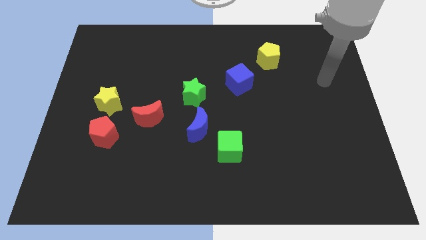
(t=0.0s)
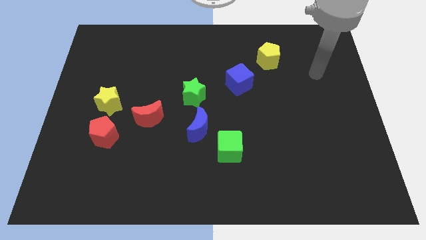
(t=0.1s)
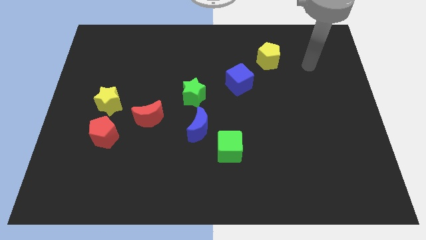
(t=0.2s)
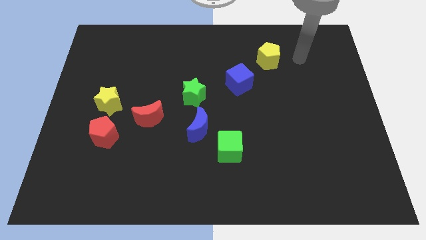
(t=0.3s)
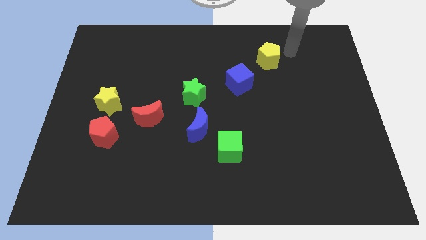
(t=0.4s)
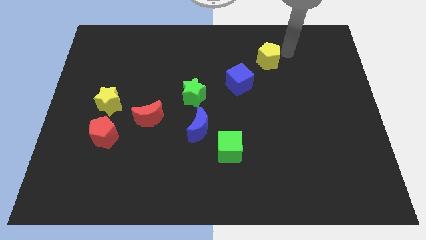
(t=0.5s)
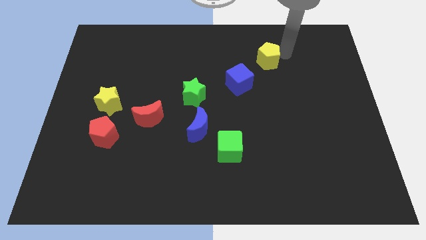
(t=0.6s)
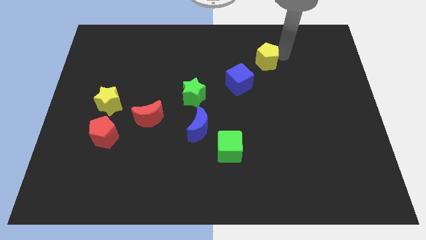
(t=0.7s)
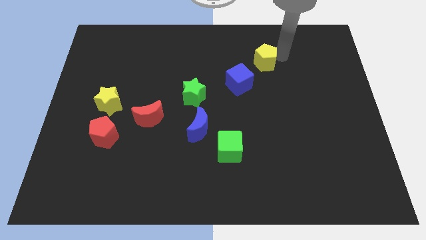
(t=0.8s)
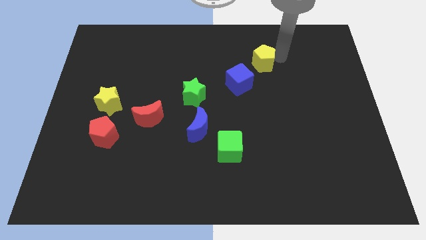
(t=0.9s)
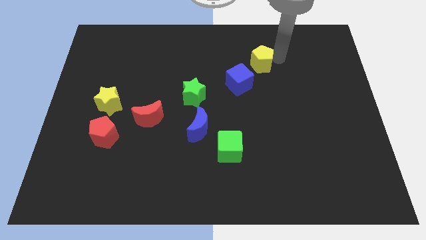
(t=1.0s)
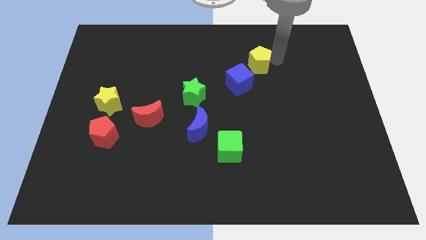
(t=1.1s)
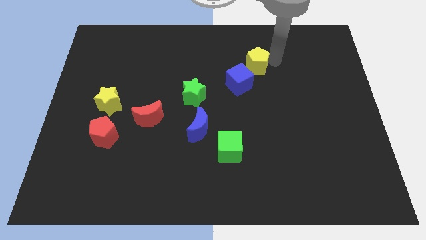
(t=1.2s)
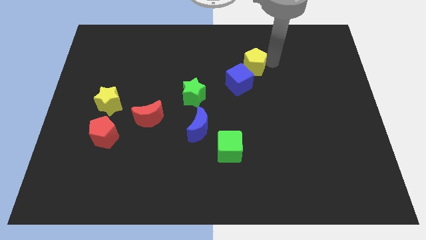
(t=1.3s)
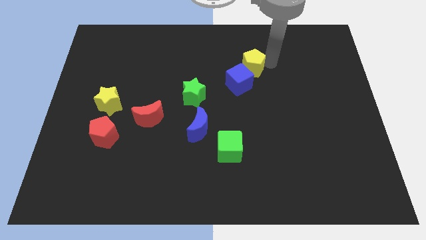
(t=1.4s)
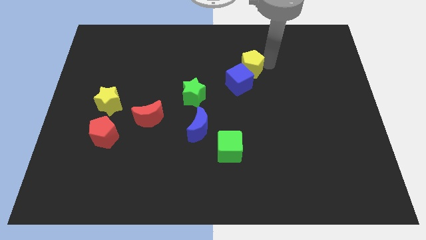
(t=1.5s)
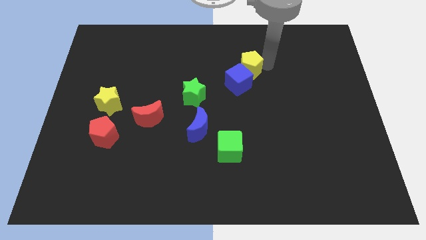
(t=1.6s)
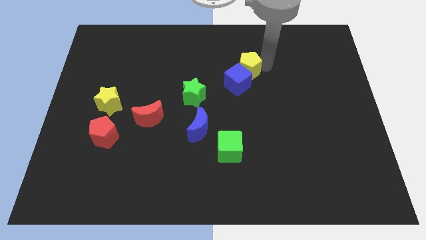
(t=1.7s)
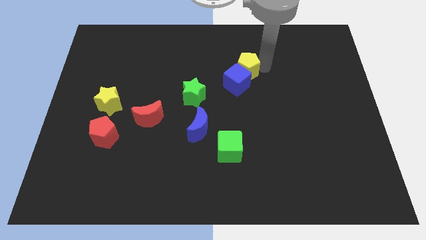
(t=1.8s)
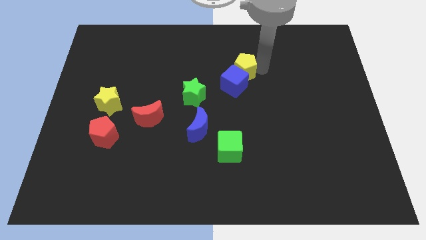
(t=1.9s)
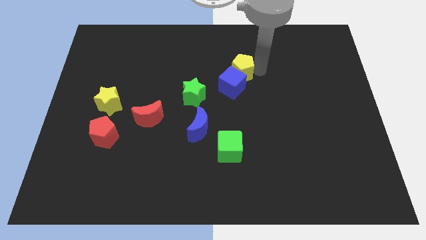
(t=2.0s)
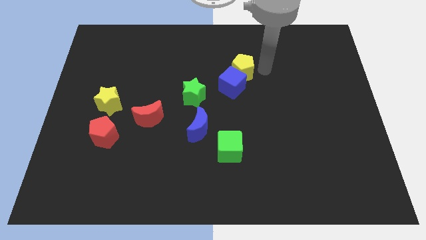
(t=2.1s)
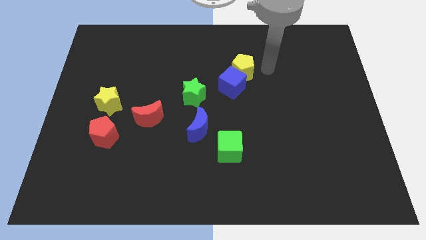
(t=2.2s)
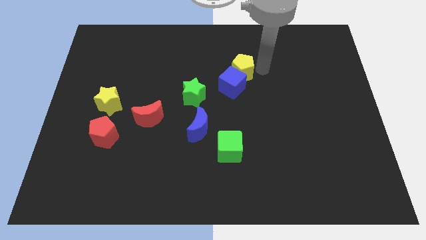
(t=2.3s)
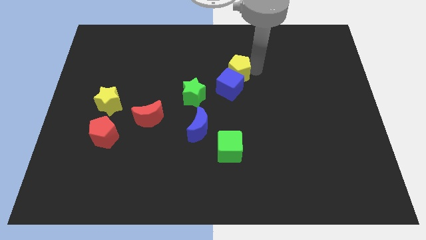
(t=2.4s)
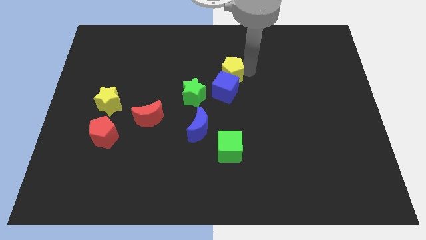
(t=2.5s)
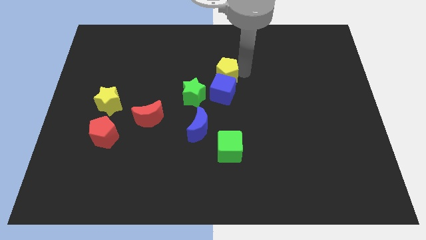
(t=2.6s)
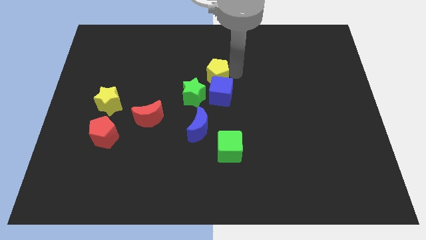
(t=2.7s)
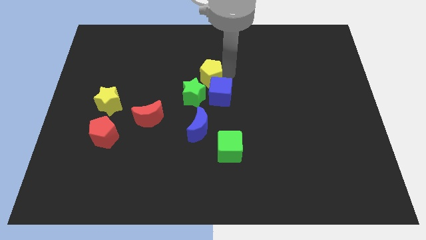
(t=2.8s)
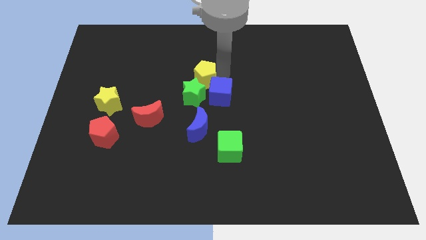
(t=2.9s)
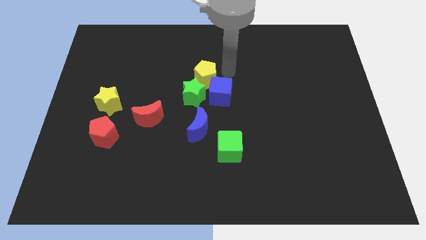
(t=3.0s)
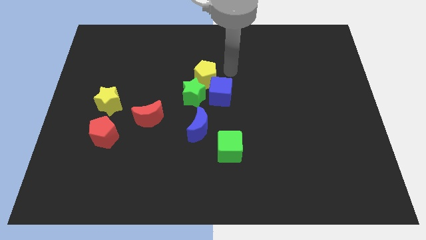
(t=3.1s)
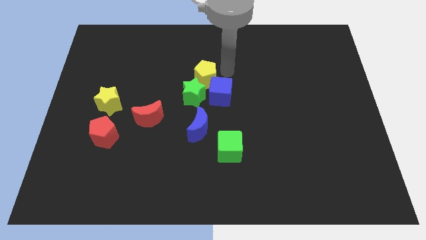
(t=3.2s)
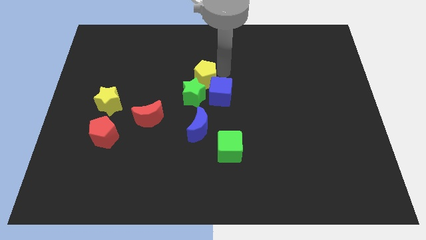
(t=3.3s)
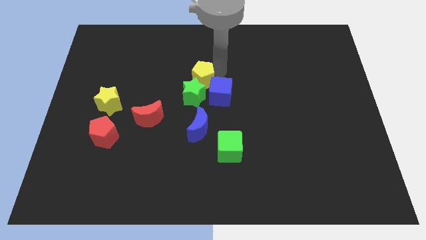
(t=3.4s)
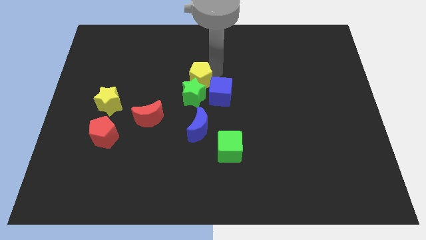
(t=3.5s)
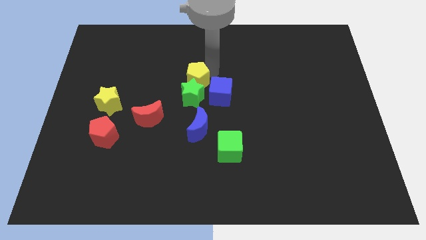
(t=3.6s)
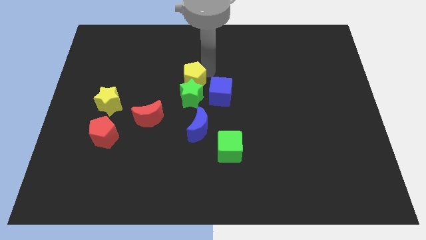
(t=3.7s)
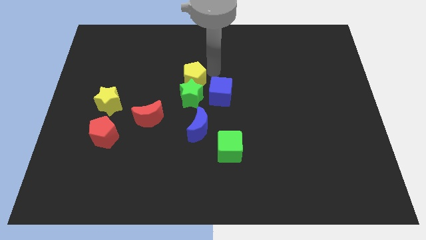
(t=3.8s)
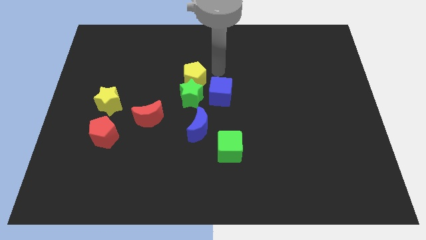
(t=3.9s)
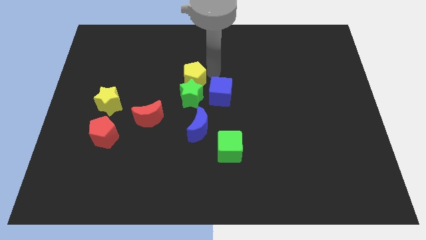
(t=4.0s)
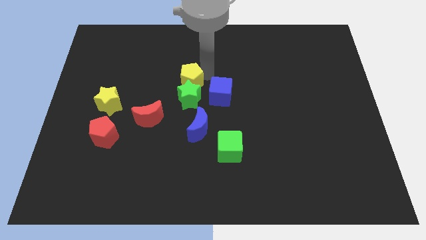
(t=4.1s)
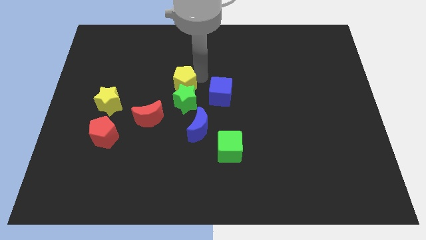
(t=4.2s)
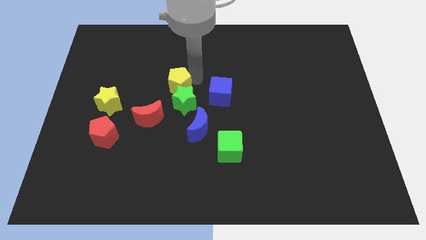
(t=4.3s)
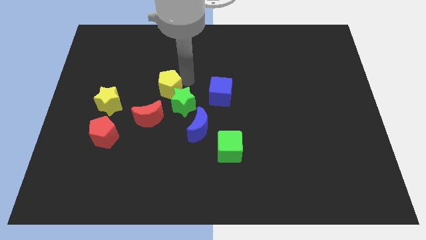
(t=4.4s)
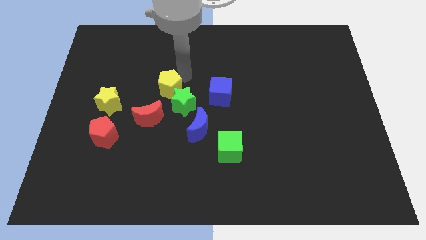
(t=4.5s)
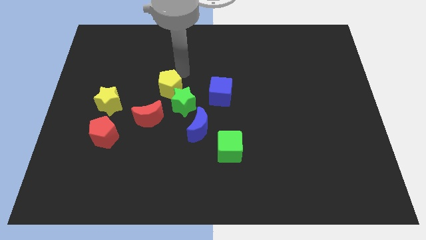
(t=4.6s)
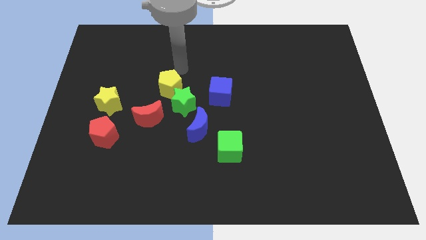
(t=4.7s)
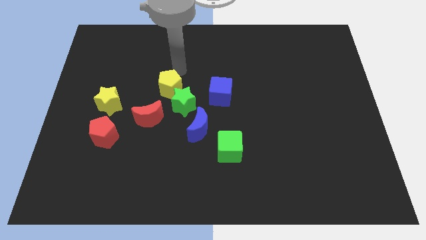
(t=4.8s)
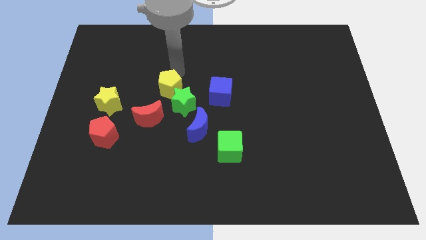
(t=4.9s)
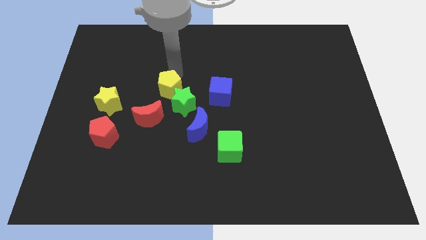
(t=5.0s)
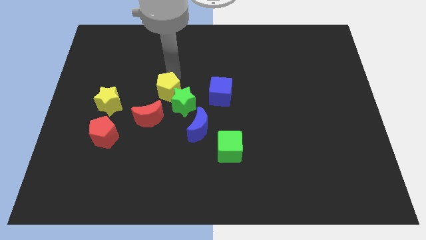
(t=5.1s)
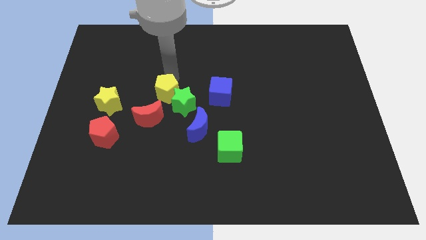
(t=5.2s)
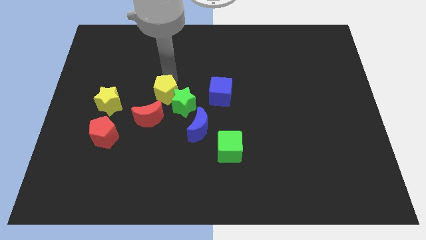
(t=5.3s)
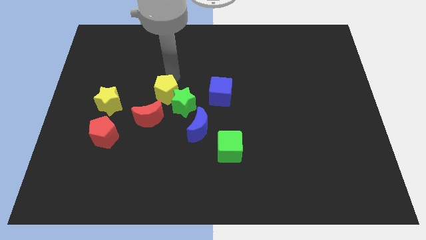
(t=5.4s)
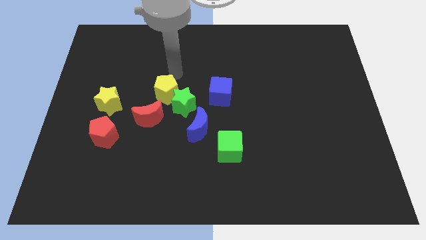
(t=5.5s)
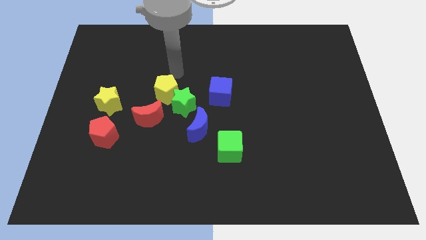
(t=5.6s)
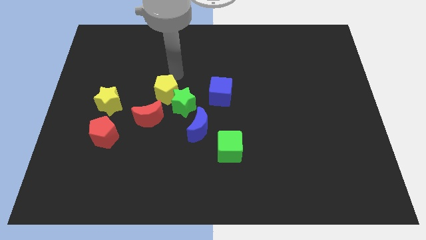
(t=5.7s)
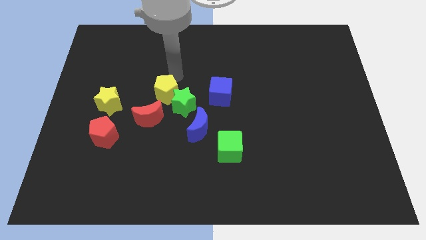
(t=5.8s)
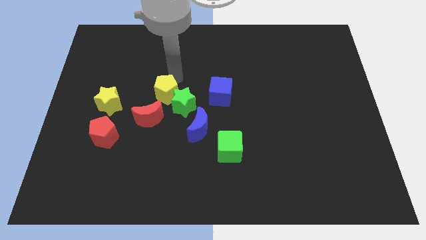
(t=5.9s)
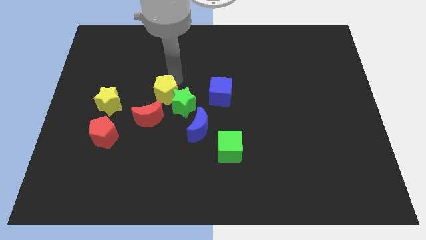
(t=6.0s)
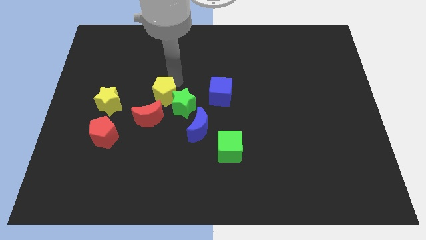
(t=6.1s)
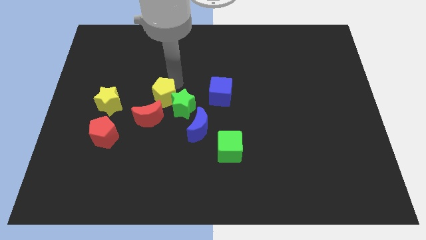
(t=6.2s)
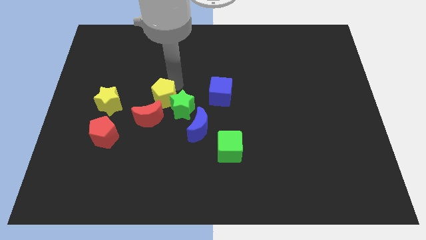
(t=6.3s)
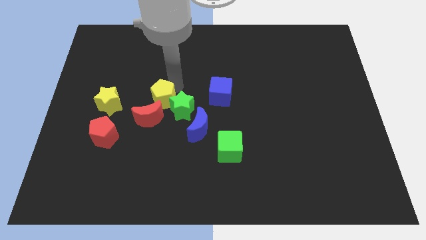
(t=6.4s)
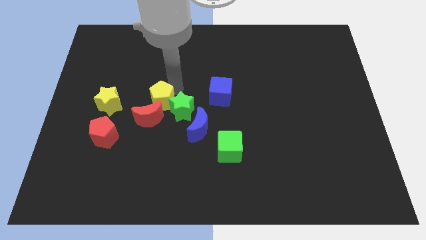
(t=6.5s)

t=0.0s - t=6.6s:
push the yellow pentagon close to the red moon

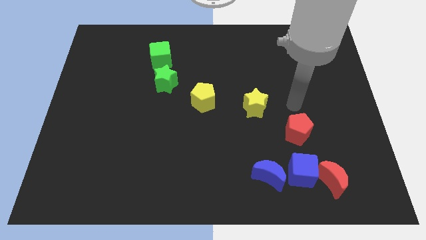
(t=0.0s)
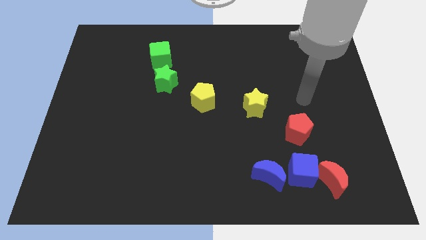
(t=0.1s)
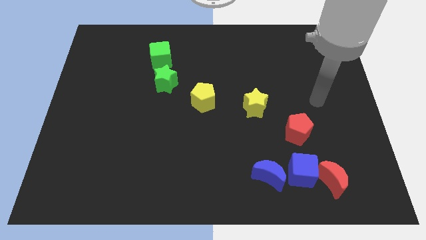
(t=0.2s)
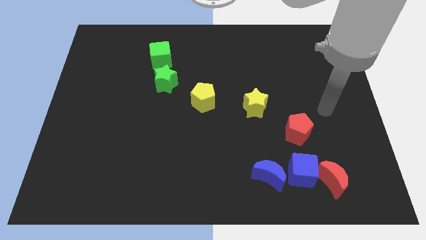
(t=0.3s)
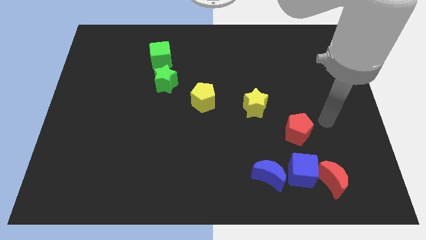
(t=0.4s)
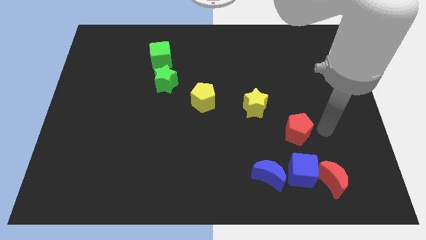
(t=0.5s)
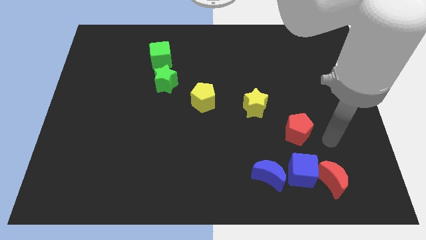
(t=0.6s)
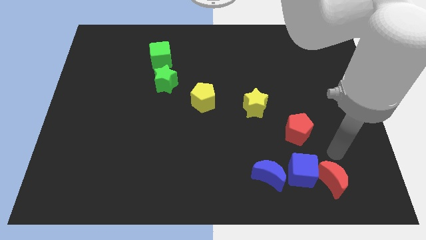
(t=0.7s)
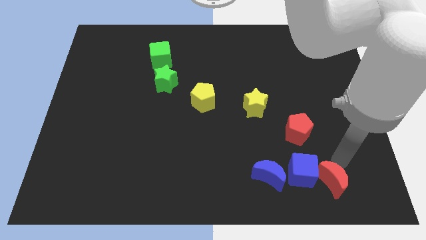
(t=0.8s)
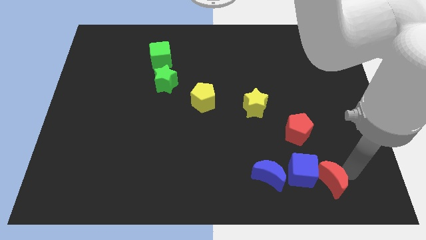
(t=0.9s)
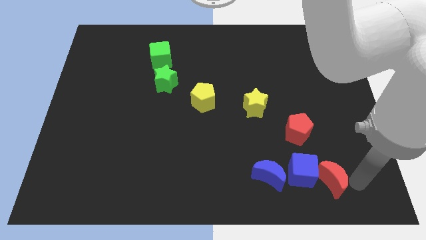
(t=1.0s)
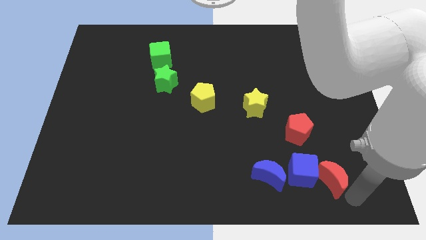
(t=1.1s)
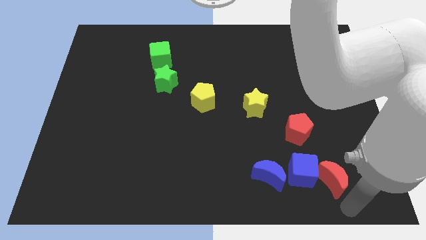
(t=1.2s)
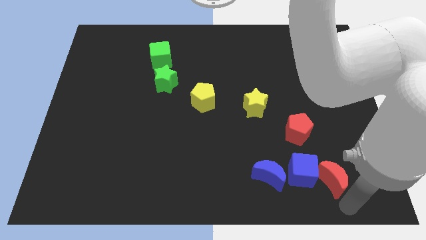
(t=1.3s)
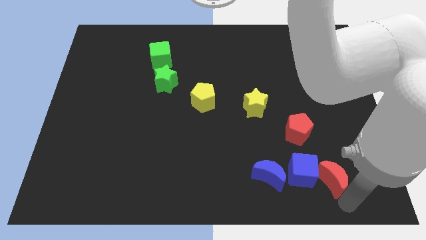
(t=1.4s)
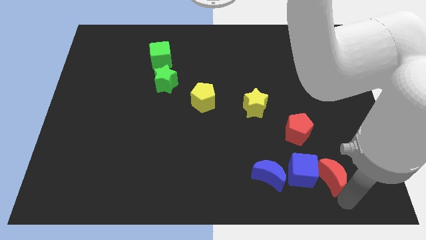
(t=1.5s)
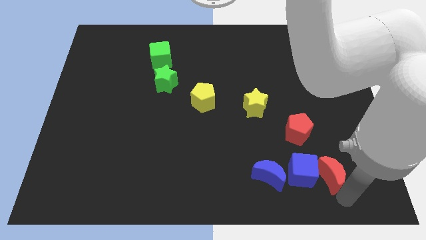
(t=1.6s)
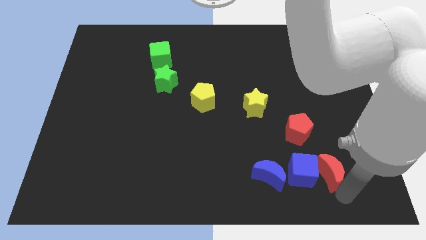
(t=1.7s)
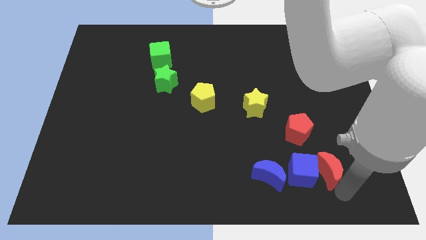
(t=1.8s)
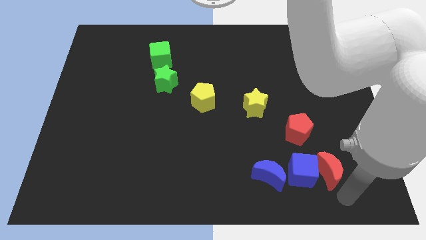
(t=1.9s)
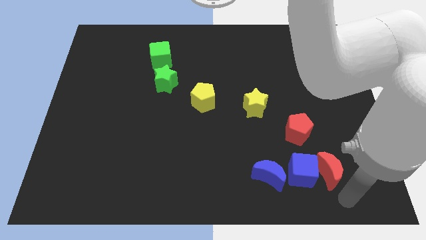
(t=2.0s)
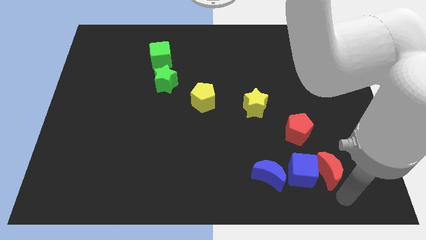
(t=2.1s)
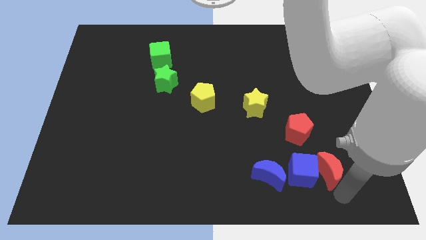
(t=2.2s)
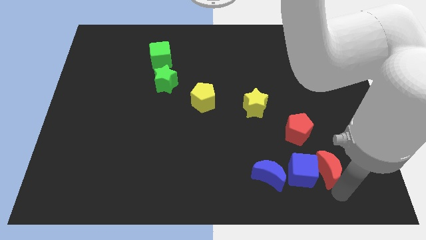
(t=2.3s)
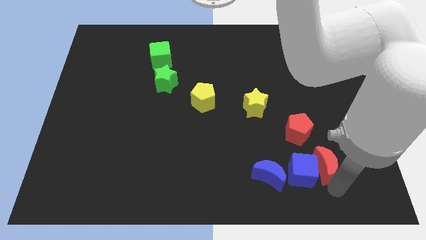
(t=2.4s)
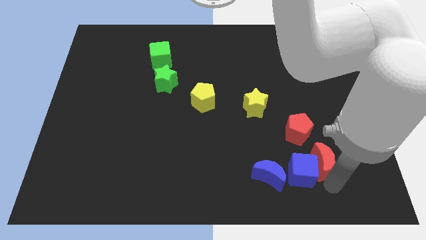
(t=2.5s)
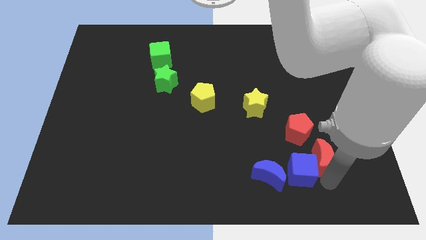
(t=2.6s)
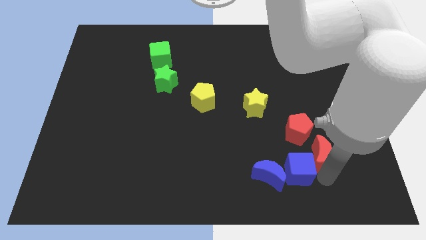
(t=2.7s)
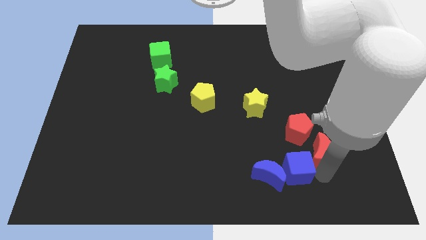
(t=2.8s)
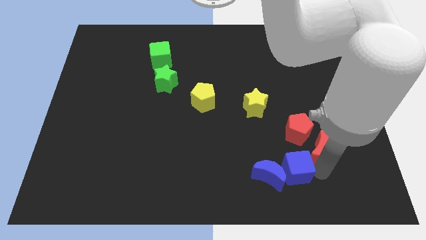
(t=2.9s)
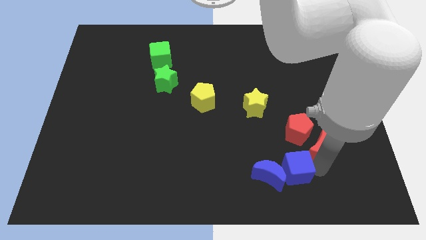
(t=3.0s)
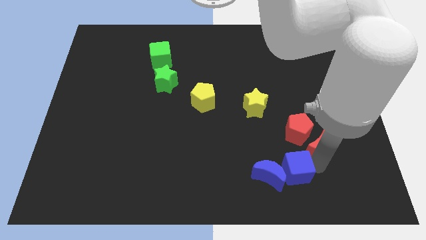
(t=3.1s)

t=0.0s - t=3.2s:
slide the red moon towards the red pentagon
